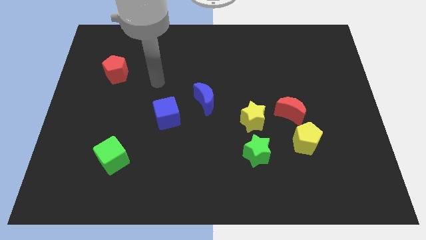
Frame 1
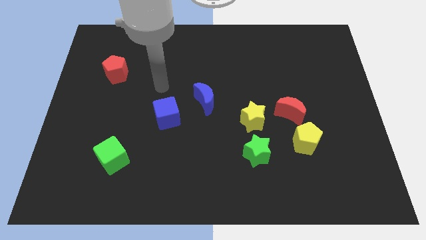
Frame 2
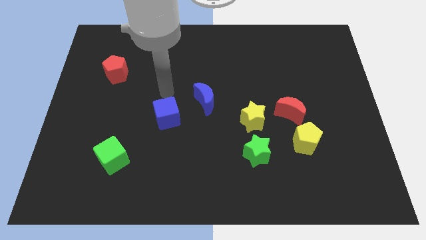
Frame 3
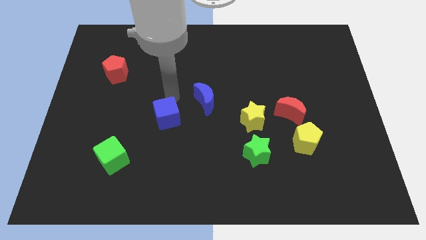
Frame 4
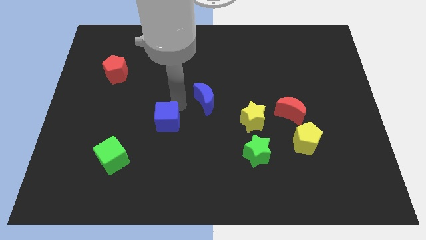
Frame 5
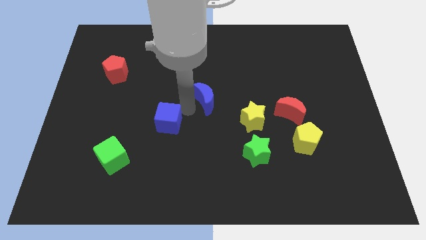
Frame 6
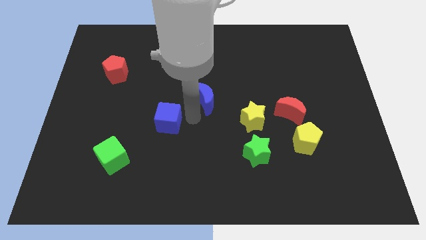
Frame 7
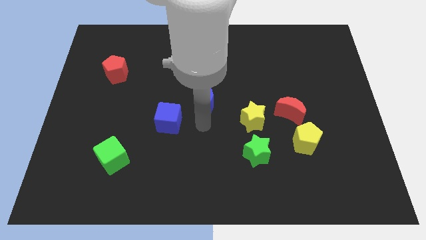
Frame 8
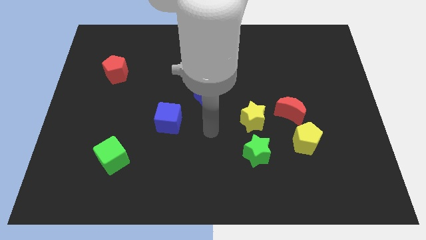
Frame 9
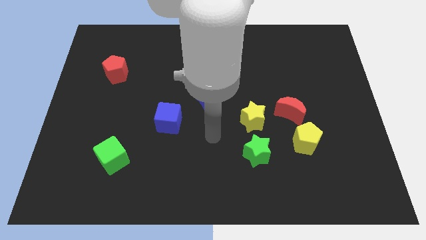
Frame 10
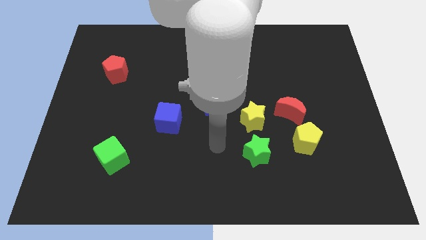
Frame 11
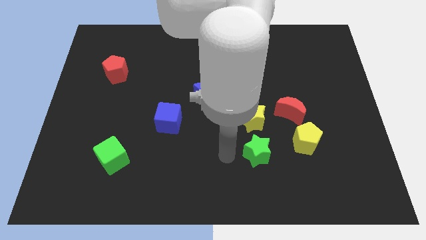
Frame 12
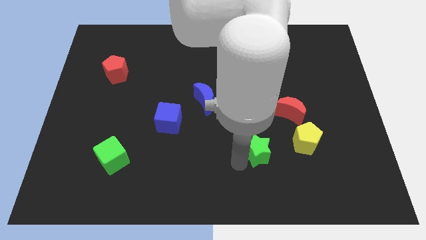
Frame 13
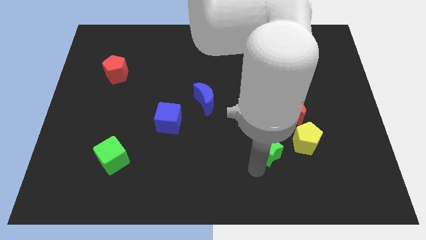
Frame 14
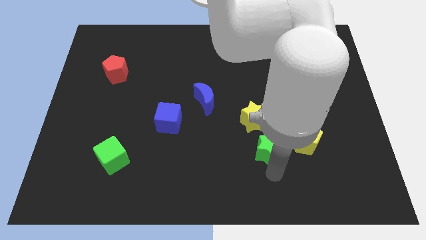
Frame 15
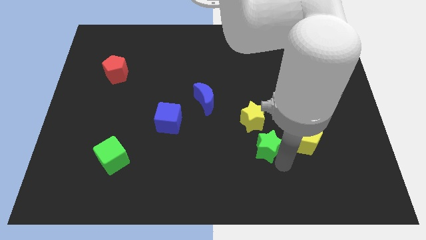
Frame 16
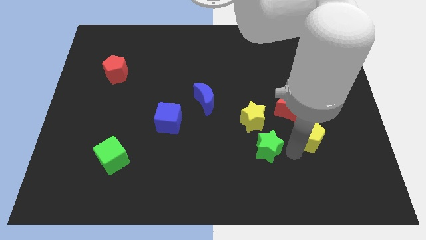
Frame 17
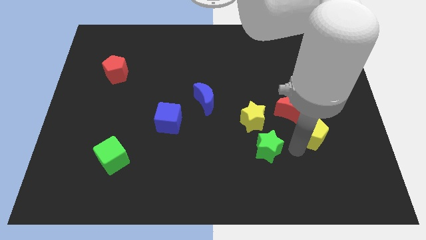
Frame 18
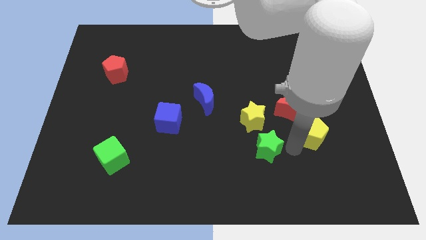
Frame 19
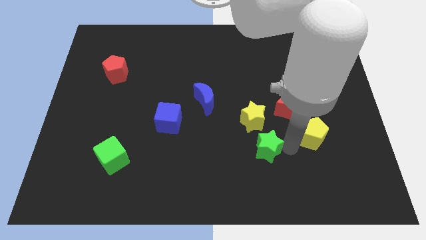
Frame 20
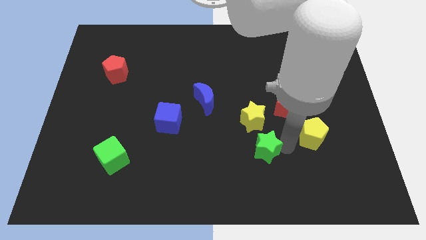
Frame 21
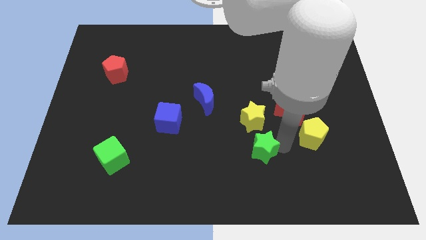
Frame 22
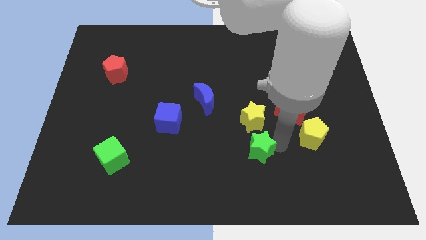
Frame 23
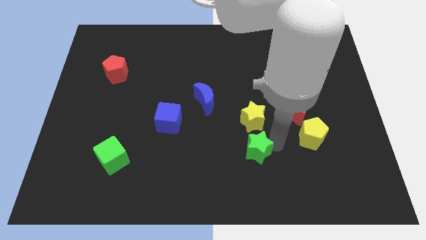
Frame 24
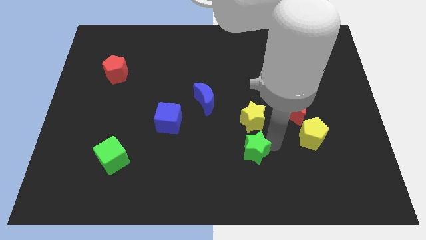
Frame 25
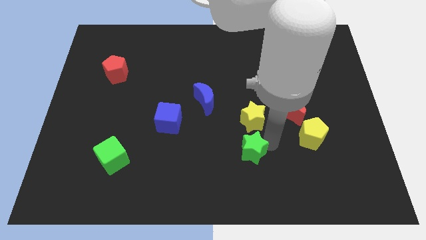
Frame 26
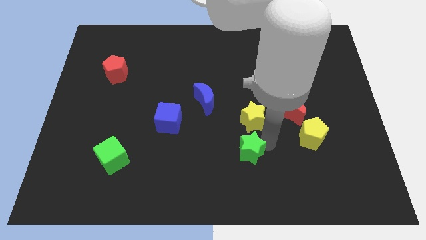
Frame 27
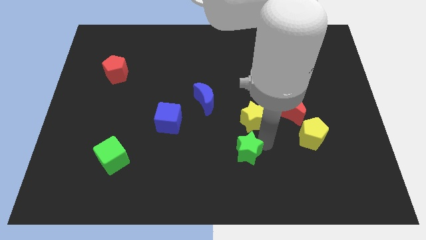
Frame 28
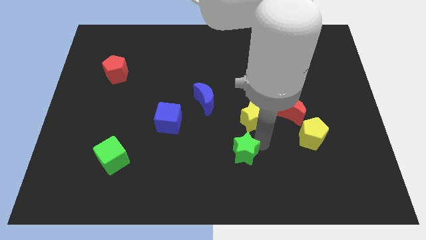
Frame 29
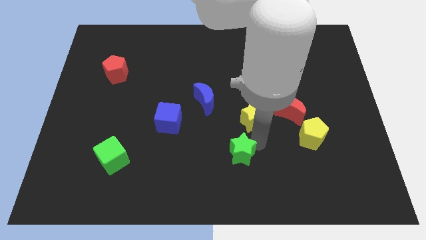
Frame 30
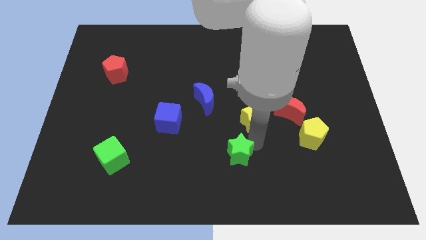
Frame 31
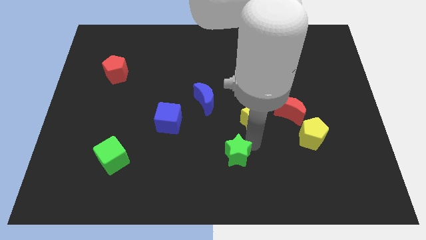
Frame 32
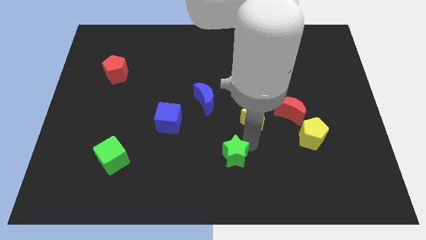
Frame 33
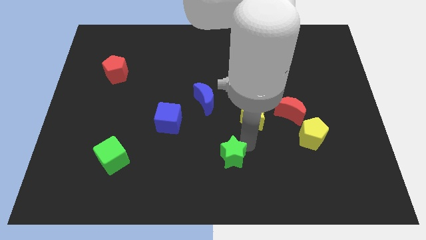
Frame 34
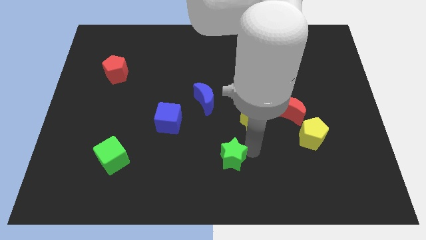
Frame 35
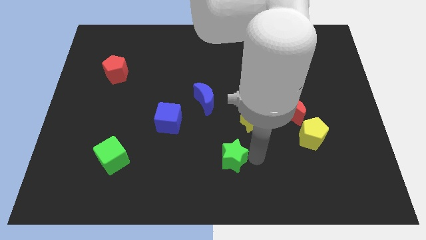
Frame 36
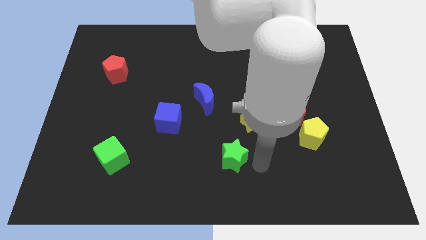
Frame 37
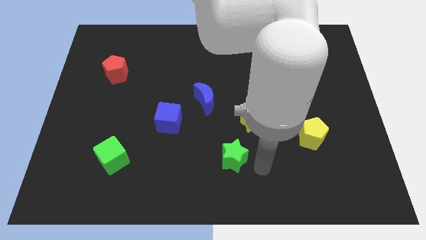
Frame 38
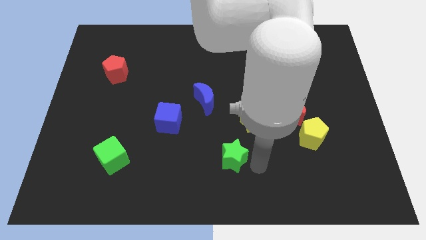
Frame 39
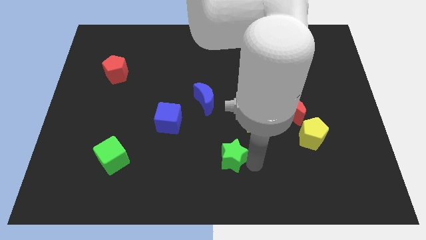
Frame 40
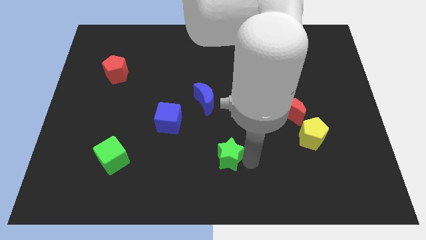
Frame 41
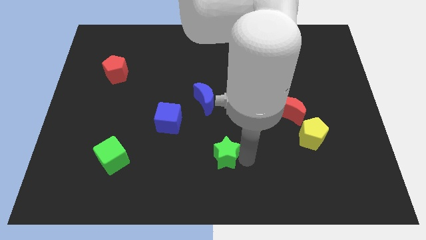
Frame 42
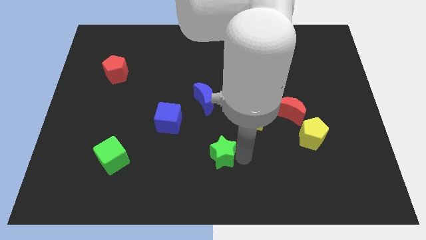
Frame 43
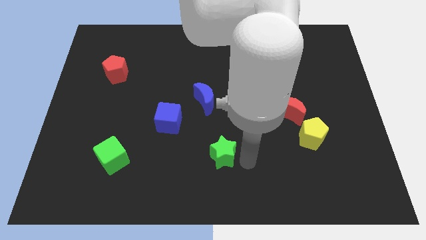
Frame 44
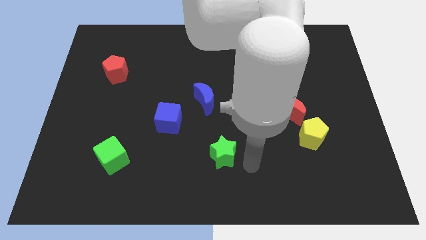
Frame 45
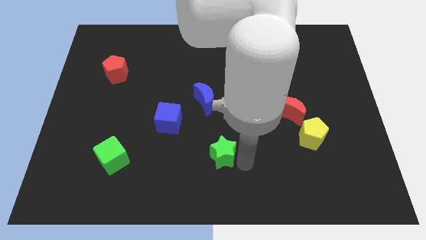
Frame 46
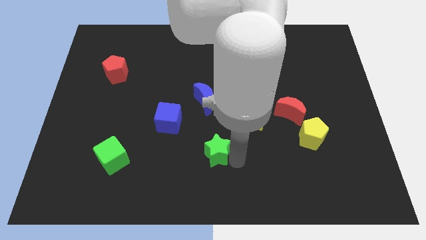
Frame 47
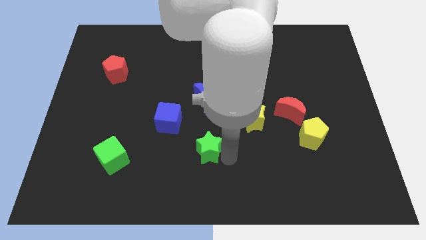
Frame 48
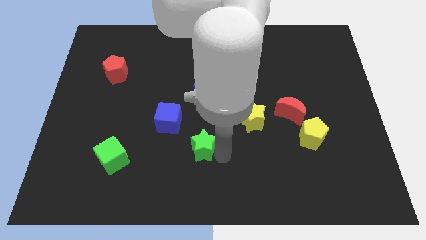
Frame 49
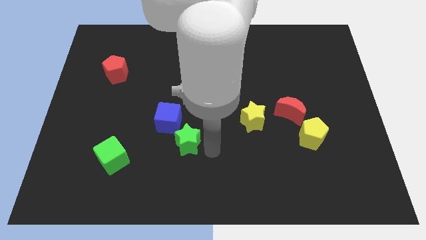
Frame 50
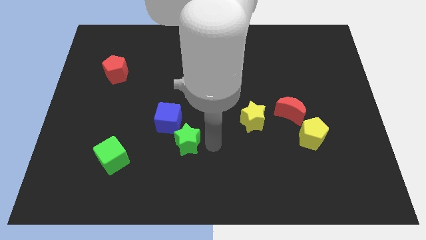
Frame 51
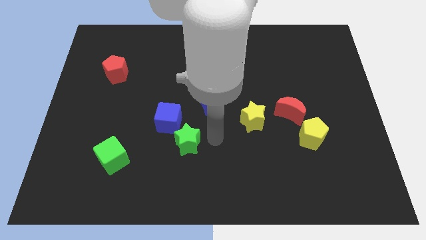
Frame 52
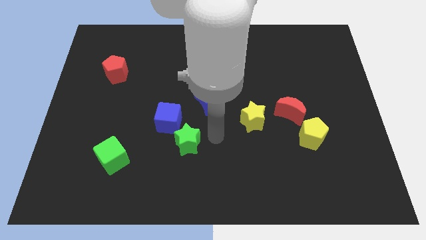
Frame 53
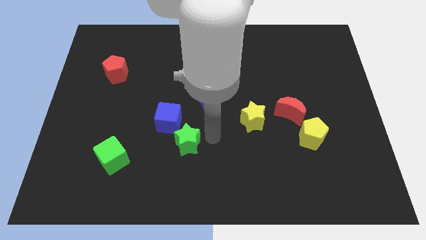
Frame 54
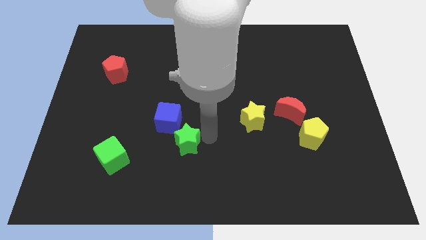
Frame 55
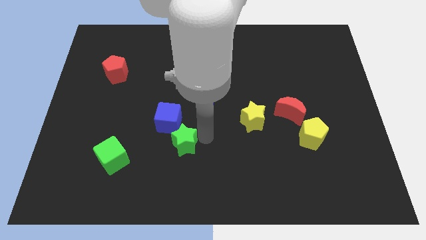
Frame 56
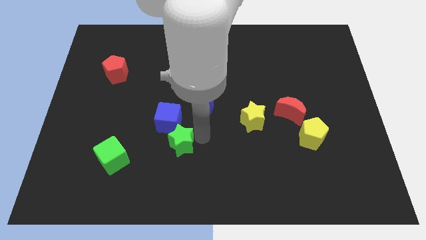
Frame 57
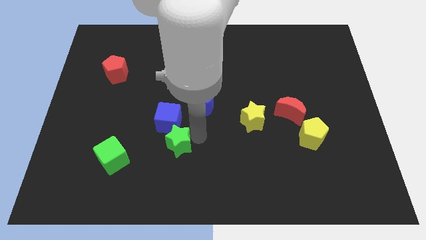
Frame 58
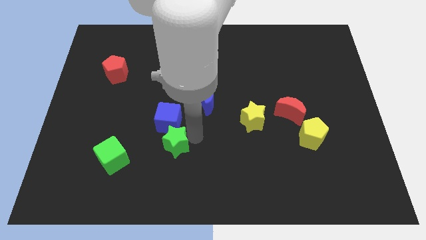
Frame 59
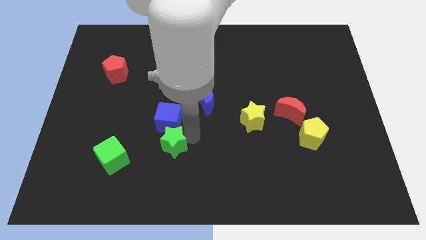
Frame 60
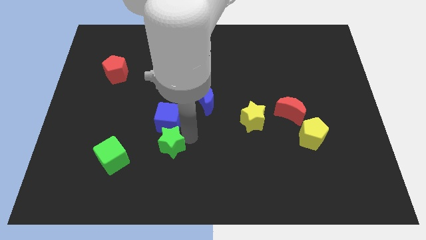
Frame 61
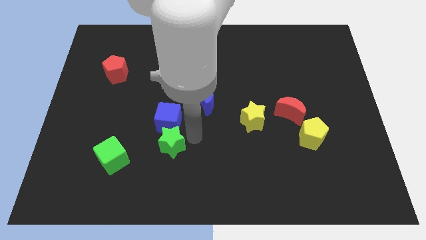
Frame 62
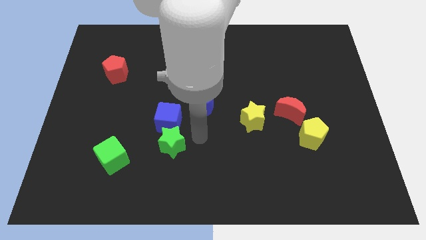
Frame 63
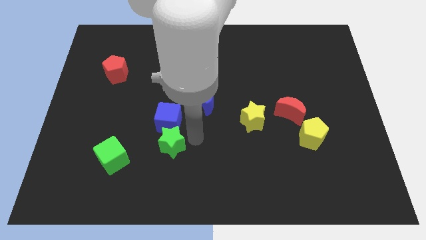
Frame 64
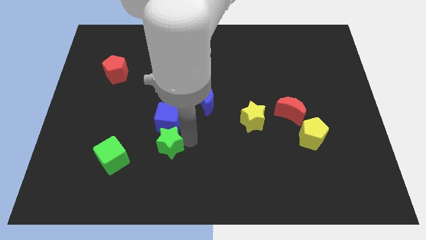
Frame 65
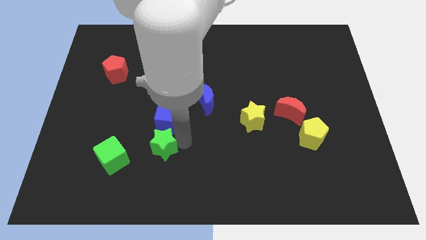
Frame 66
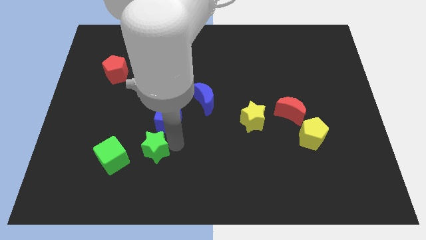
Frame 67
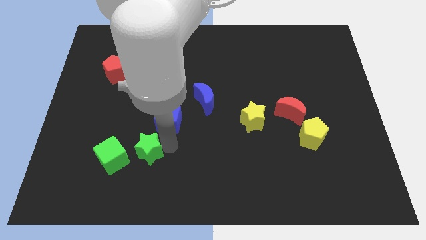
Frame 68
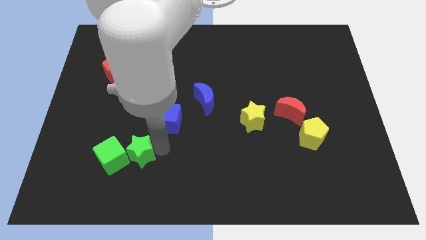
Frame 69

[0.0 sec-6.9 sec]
slide the green star next to the green cube
